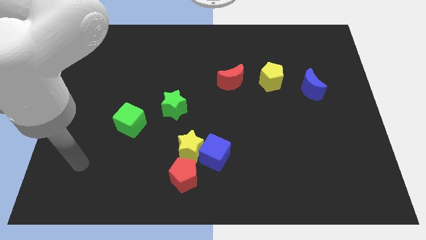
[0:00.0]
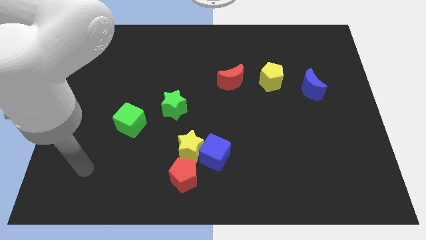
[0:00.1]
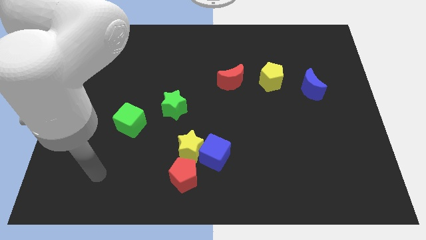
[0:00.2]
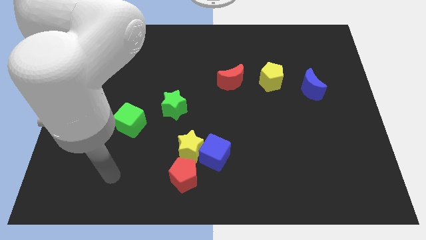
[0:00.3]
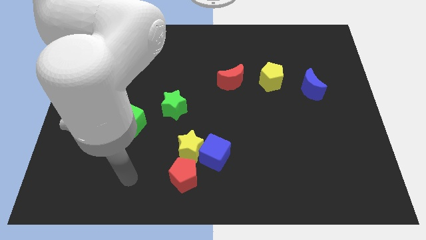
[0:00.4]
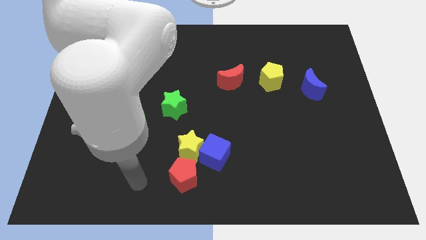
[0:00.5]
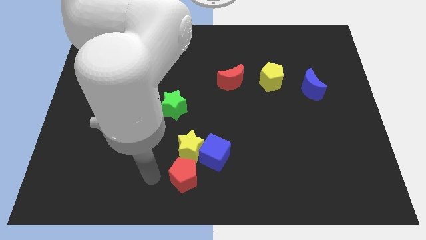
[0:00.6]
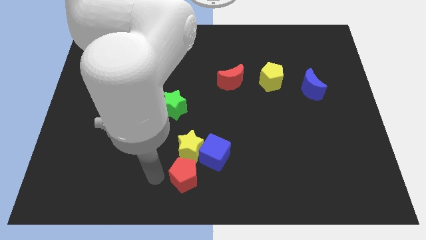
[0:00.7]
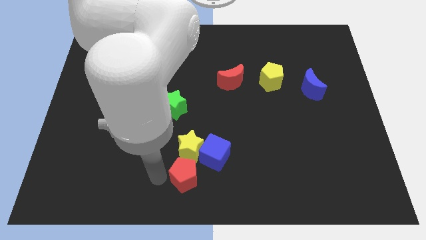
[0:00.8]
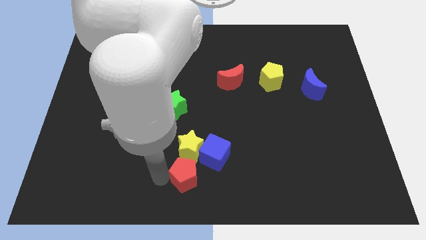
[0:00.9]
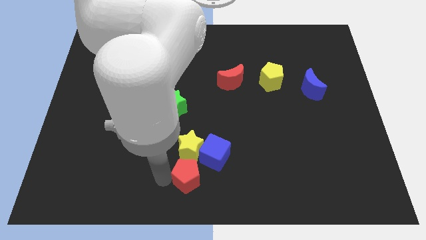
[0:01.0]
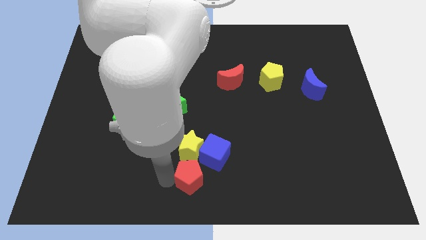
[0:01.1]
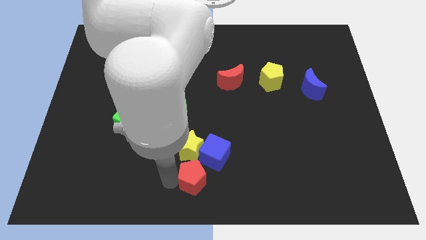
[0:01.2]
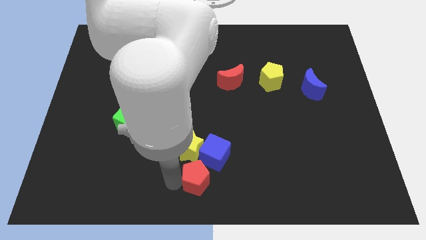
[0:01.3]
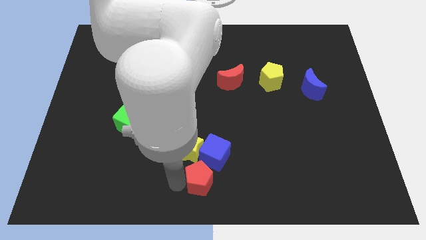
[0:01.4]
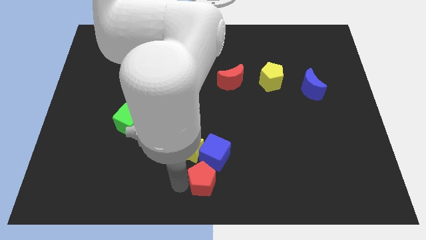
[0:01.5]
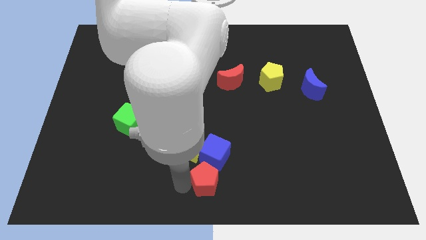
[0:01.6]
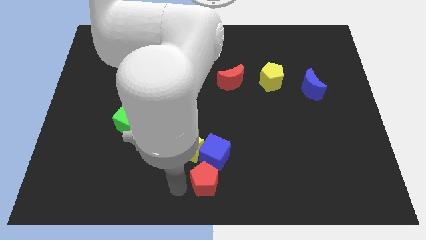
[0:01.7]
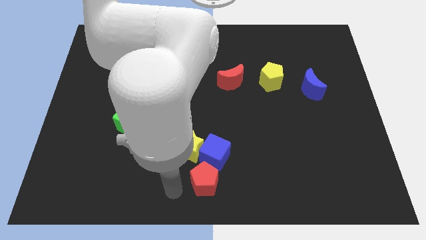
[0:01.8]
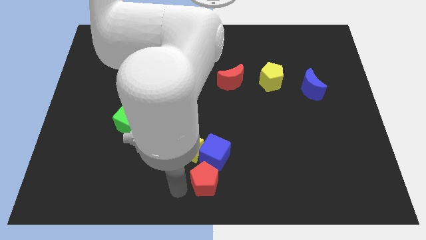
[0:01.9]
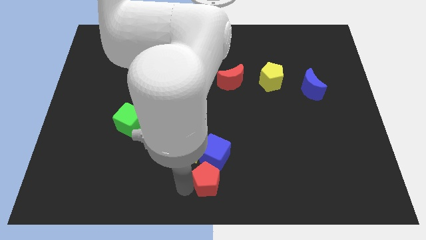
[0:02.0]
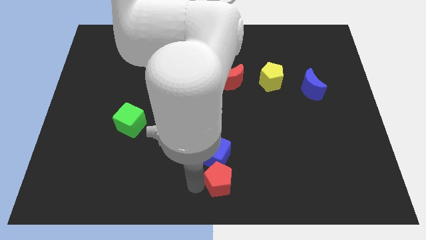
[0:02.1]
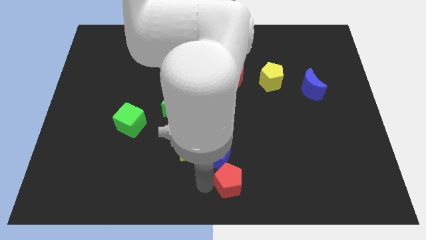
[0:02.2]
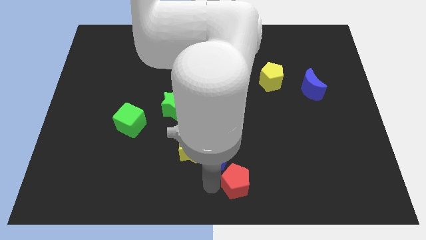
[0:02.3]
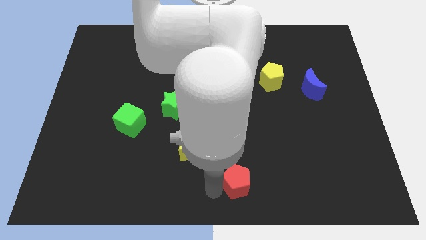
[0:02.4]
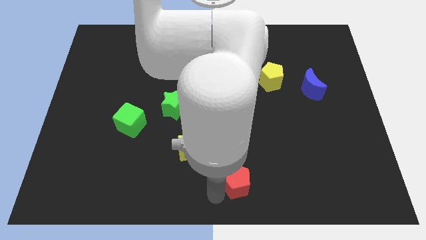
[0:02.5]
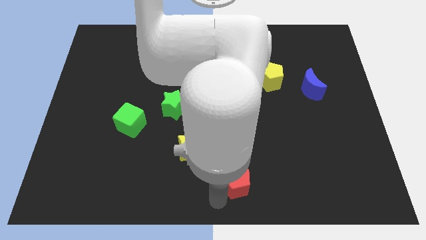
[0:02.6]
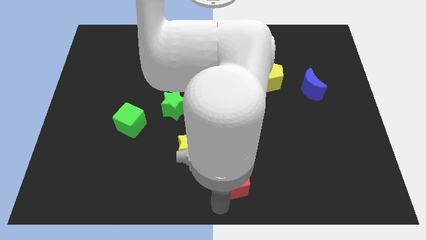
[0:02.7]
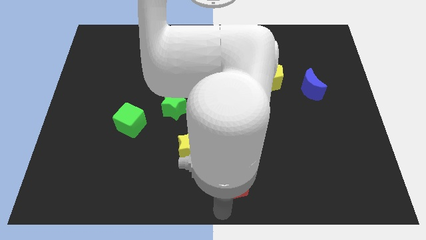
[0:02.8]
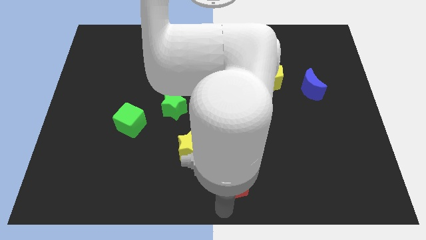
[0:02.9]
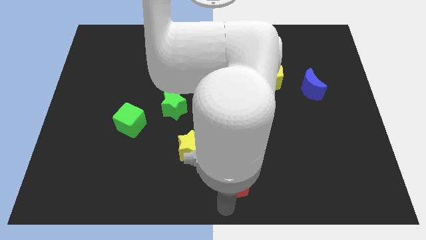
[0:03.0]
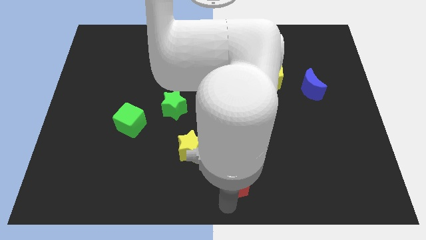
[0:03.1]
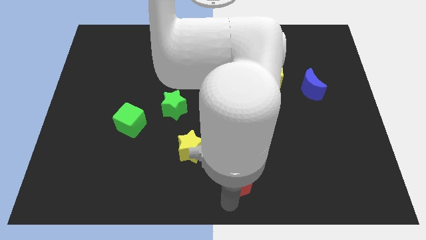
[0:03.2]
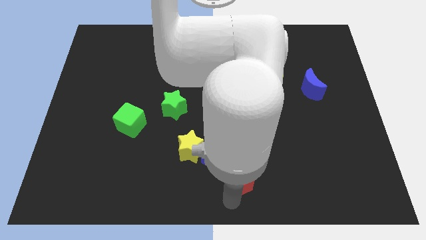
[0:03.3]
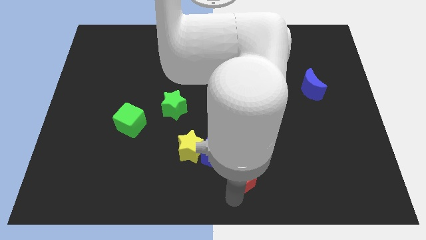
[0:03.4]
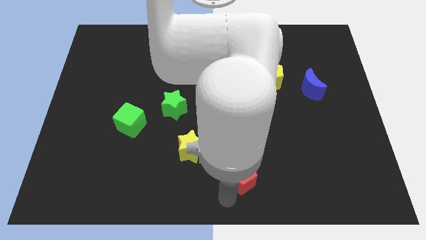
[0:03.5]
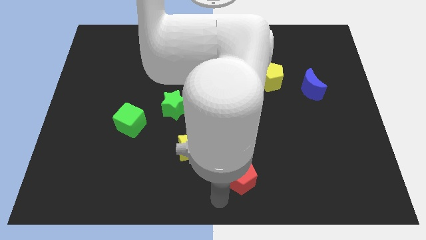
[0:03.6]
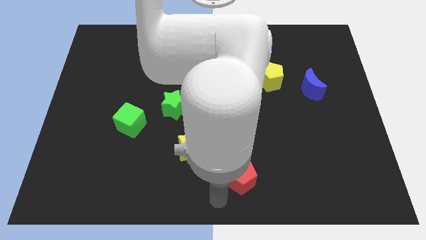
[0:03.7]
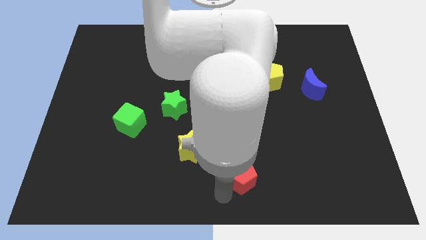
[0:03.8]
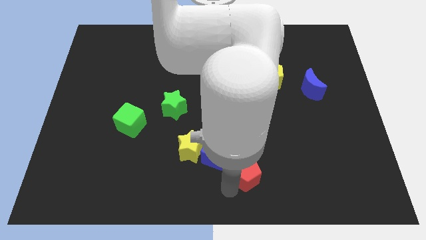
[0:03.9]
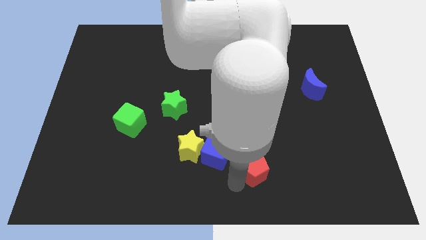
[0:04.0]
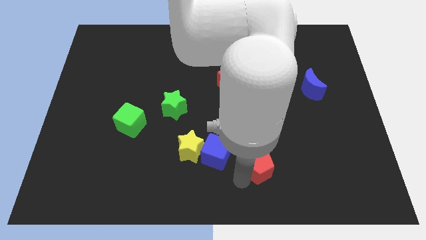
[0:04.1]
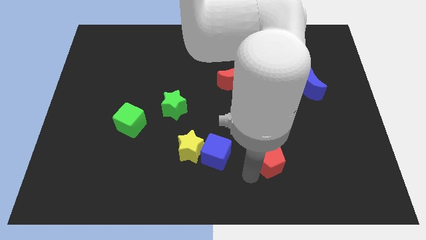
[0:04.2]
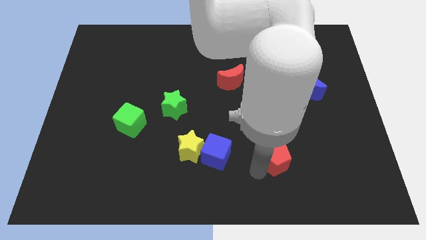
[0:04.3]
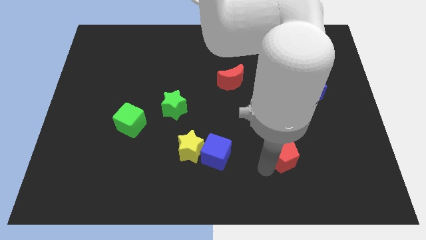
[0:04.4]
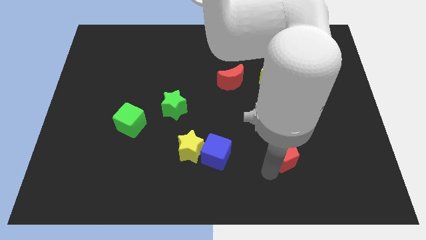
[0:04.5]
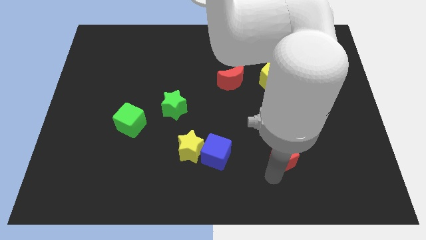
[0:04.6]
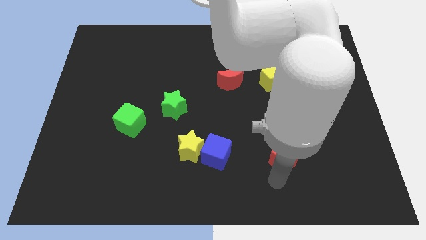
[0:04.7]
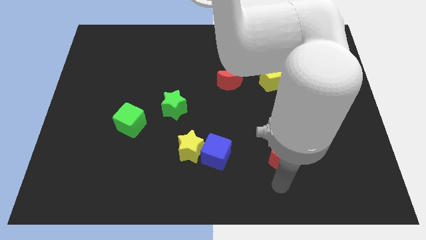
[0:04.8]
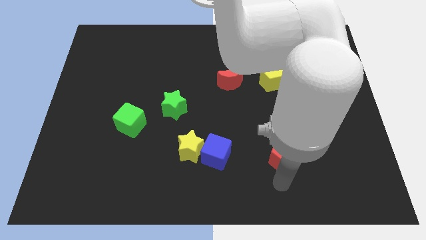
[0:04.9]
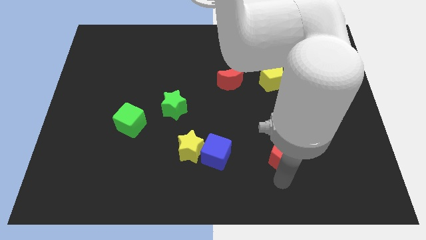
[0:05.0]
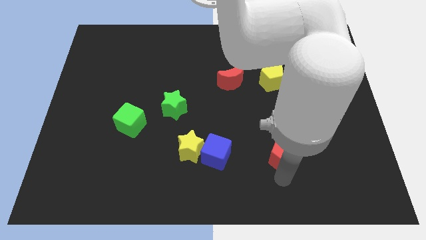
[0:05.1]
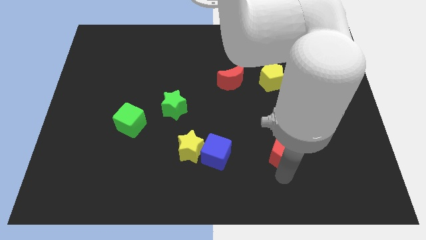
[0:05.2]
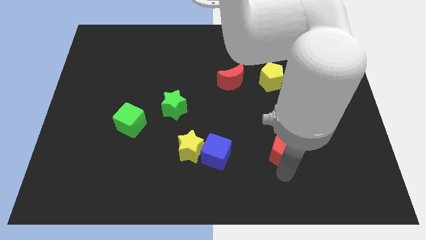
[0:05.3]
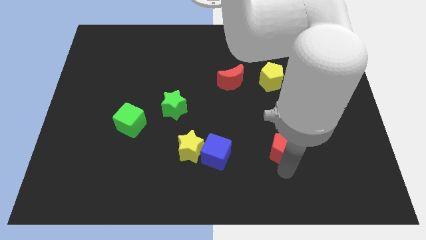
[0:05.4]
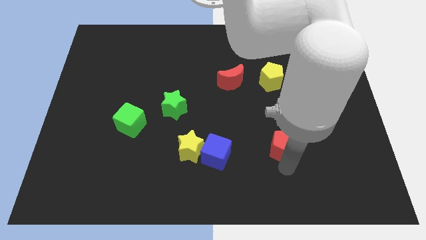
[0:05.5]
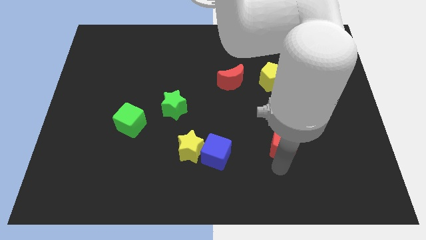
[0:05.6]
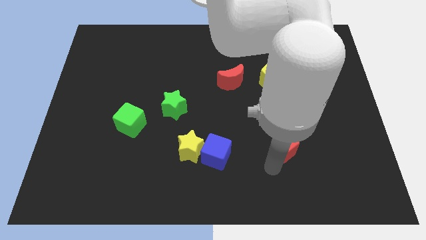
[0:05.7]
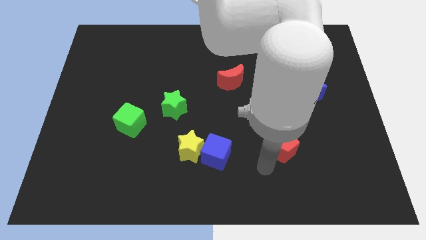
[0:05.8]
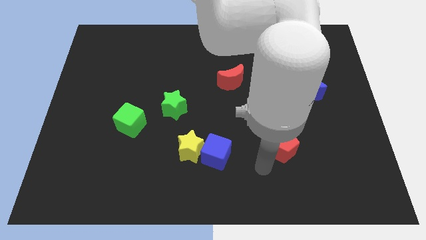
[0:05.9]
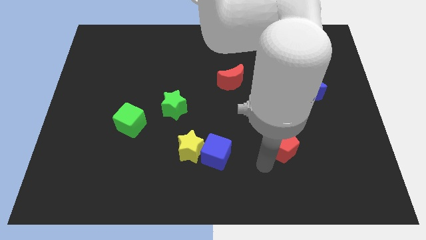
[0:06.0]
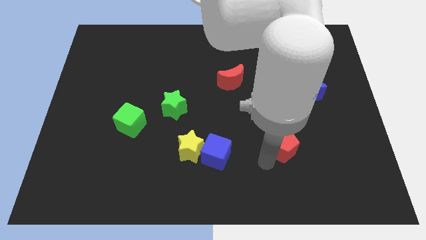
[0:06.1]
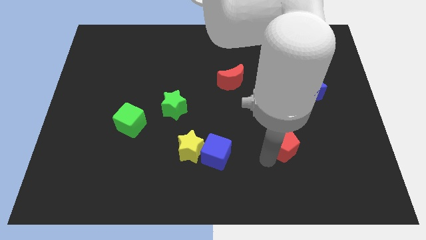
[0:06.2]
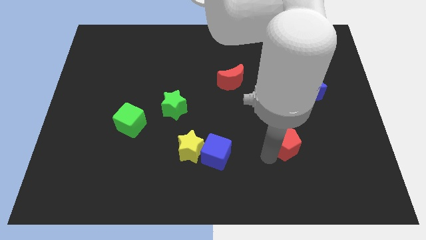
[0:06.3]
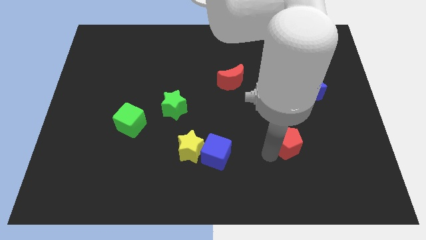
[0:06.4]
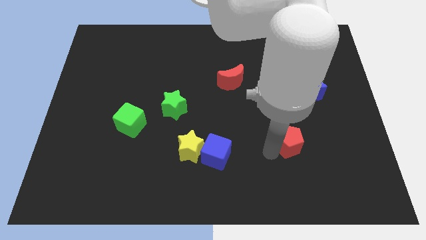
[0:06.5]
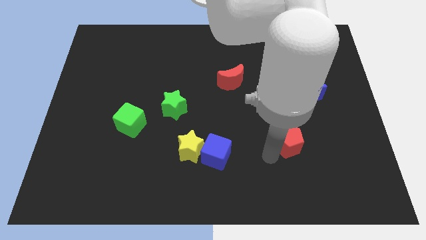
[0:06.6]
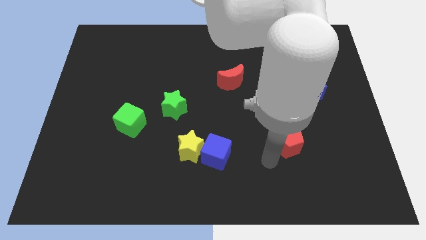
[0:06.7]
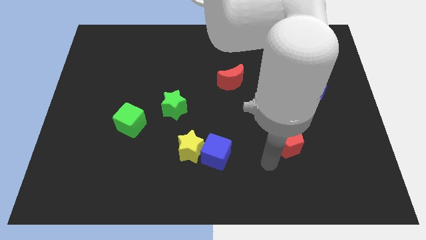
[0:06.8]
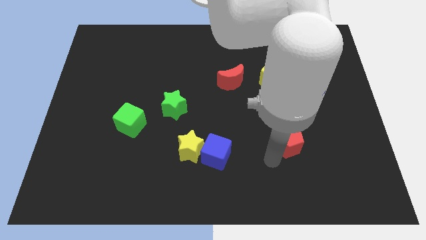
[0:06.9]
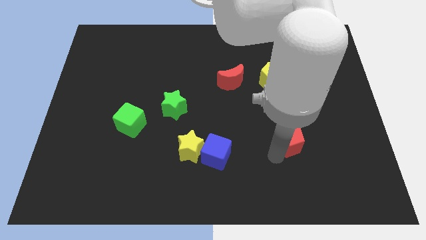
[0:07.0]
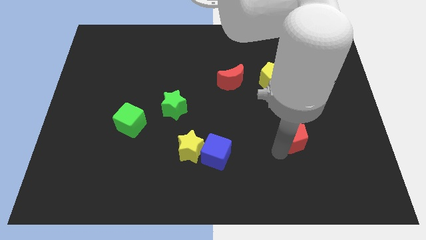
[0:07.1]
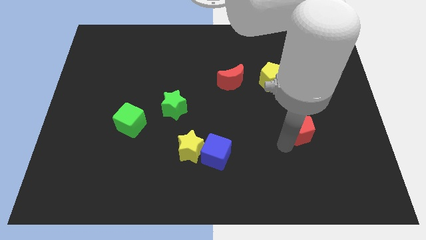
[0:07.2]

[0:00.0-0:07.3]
move the red pentagon below the blue moon

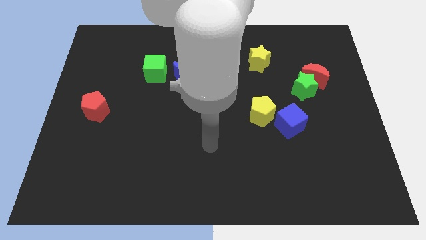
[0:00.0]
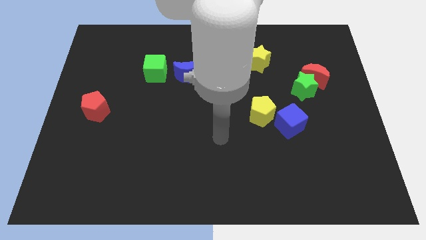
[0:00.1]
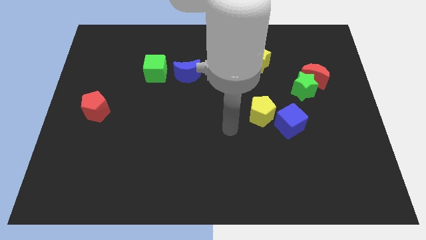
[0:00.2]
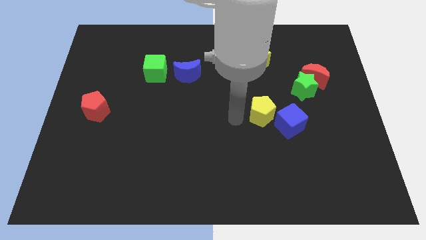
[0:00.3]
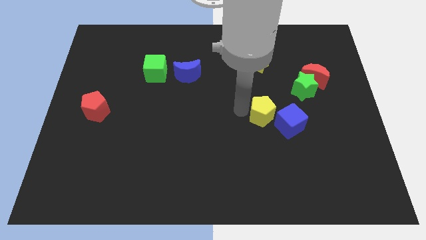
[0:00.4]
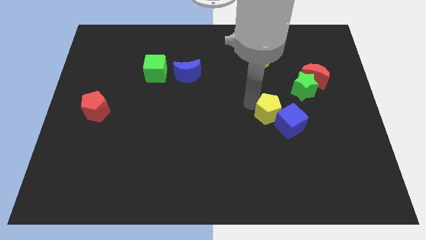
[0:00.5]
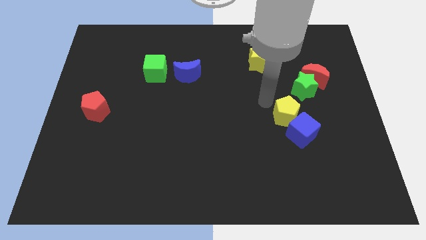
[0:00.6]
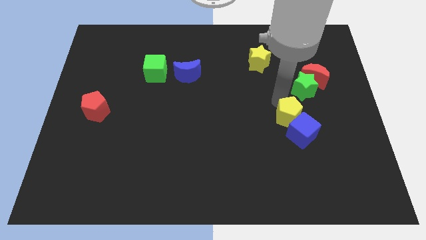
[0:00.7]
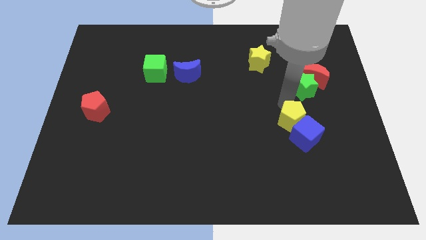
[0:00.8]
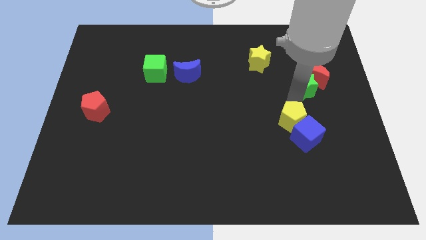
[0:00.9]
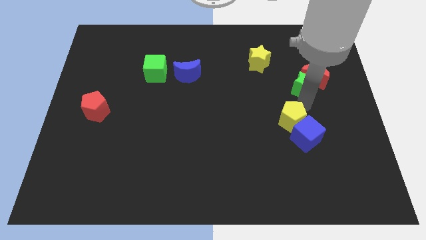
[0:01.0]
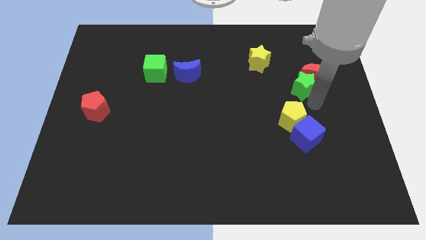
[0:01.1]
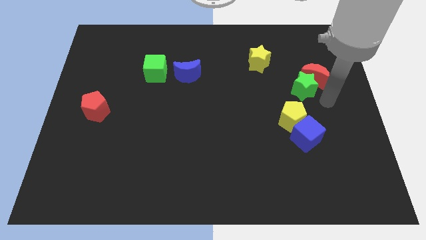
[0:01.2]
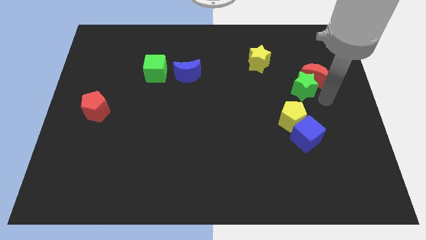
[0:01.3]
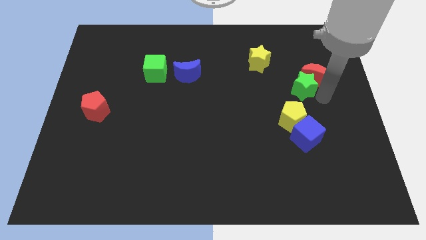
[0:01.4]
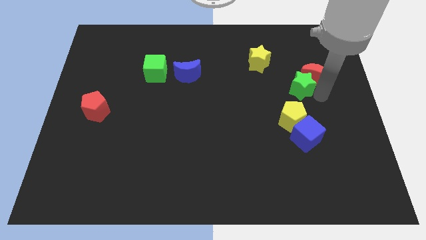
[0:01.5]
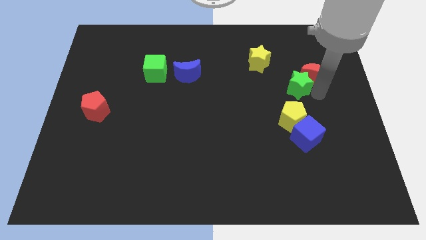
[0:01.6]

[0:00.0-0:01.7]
push the green star diagonally down and to the right of the yellow star
